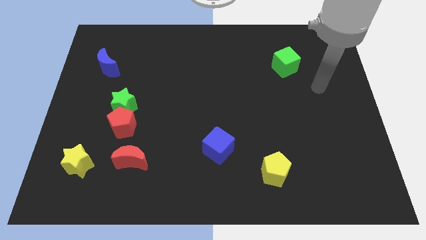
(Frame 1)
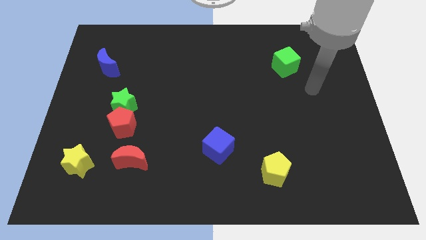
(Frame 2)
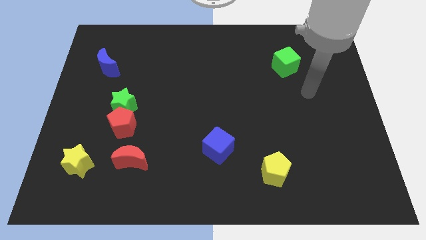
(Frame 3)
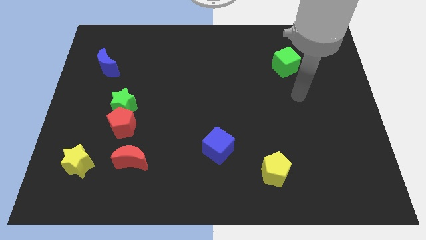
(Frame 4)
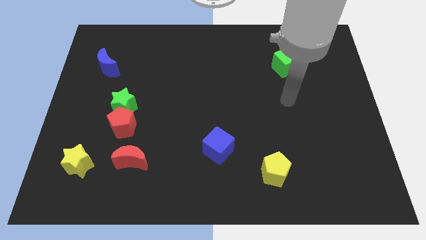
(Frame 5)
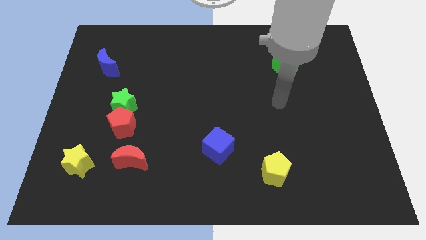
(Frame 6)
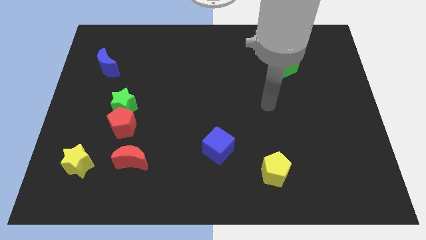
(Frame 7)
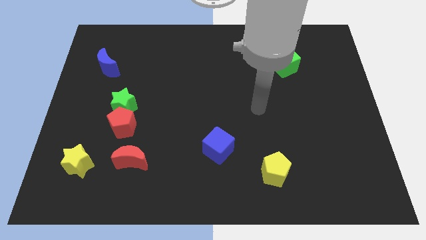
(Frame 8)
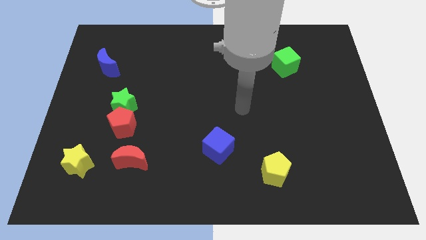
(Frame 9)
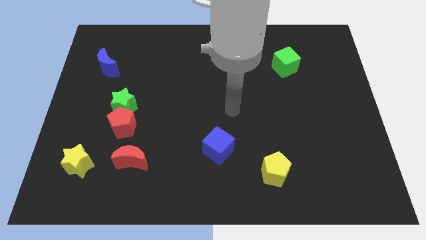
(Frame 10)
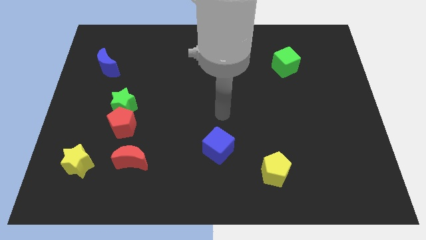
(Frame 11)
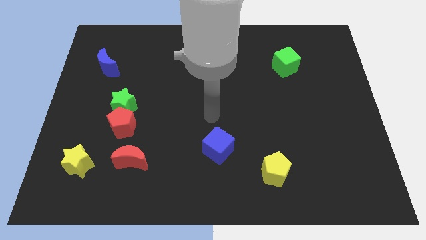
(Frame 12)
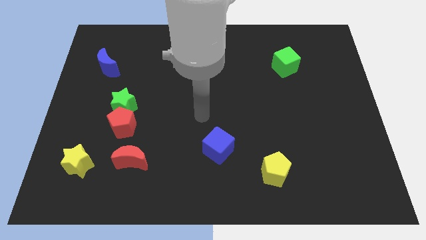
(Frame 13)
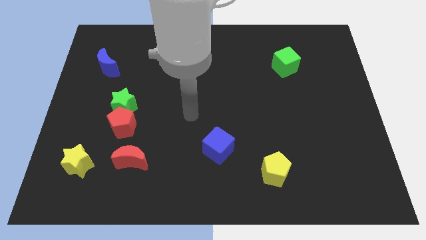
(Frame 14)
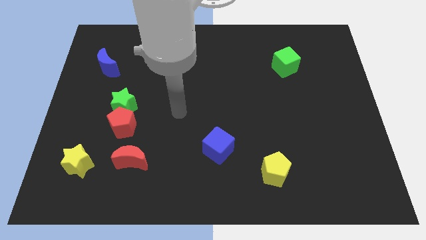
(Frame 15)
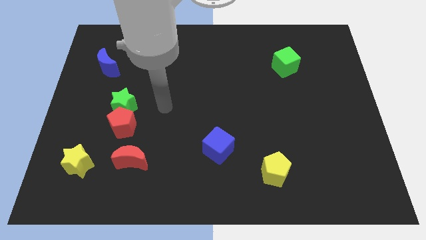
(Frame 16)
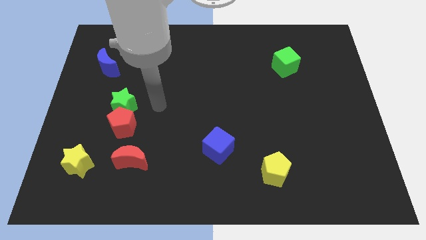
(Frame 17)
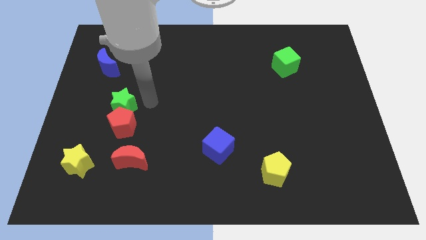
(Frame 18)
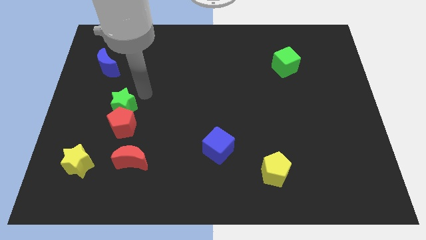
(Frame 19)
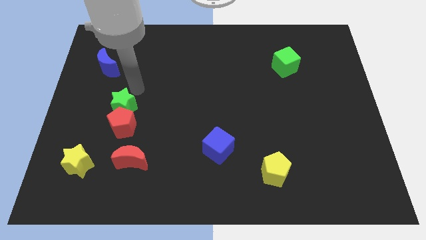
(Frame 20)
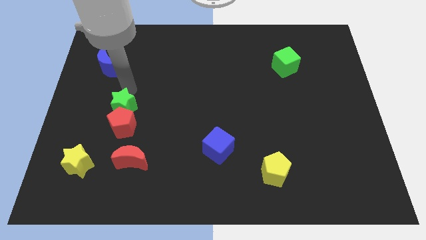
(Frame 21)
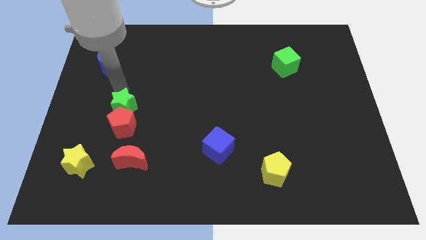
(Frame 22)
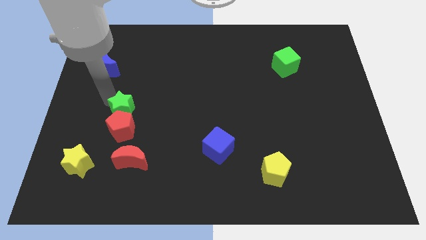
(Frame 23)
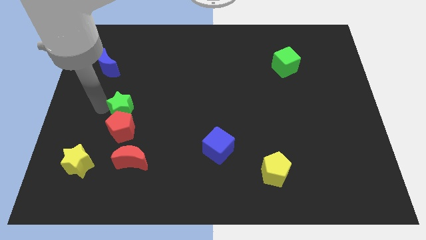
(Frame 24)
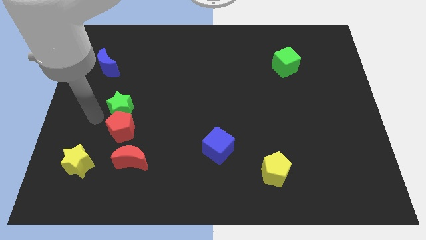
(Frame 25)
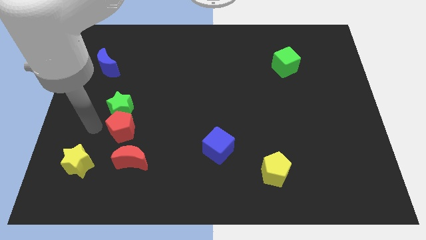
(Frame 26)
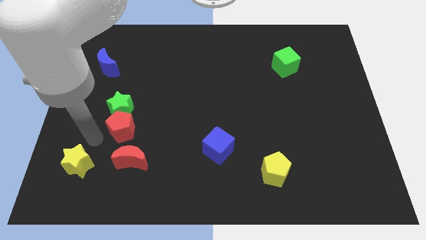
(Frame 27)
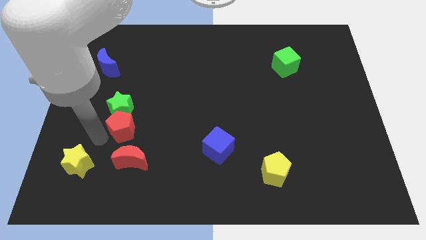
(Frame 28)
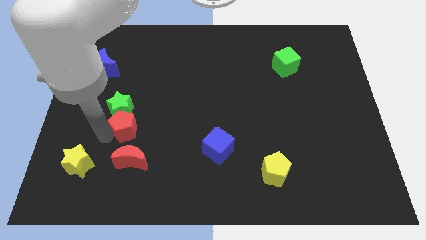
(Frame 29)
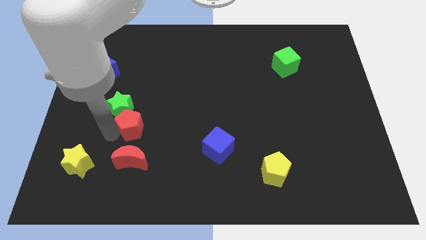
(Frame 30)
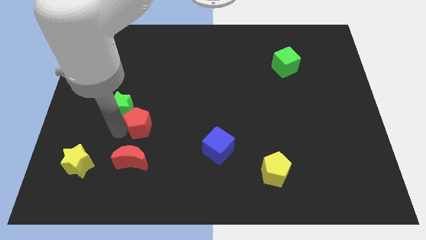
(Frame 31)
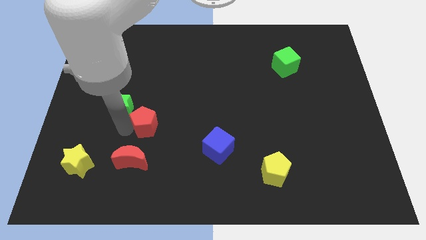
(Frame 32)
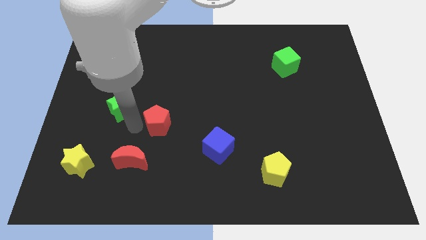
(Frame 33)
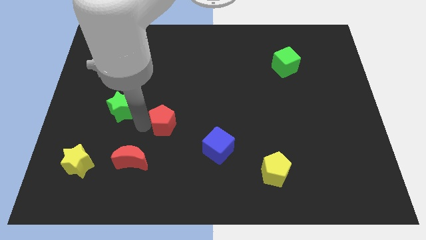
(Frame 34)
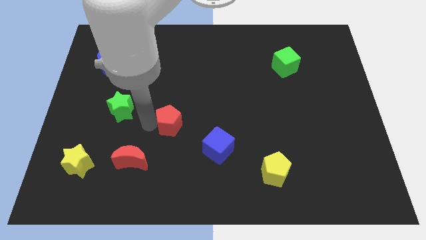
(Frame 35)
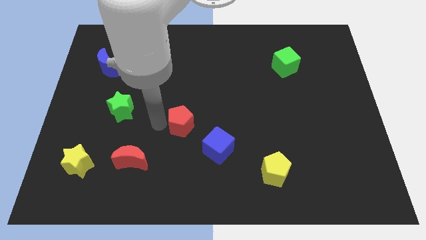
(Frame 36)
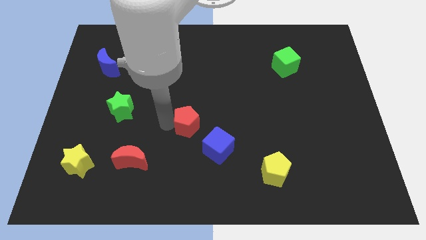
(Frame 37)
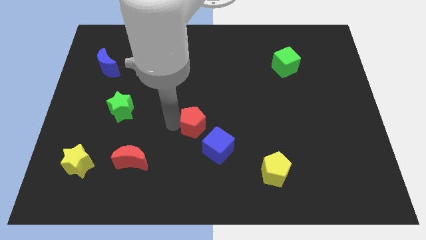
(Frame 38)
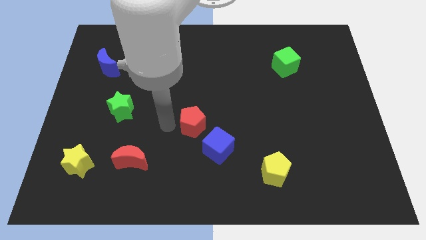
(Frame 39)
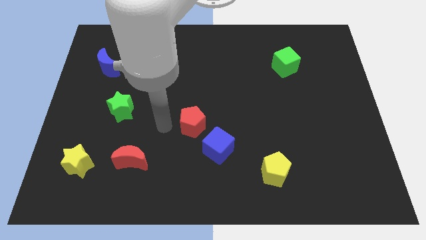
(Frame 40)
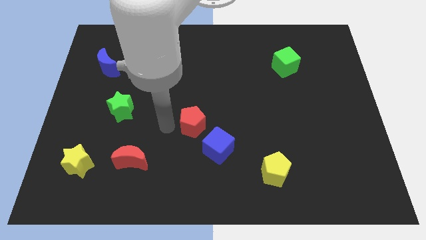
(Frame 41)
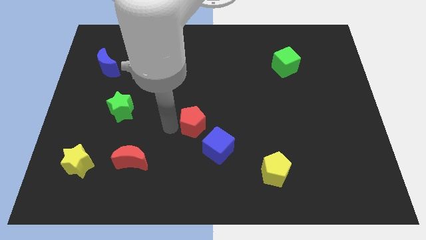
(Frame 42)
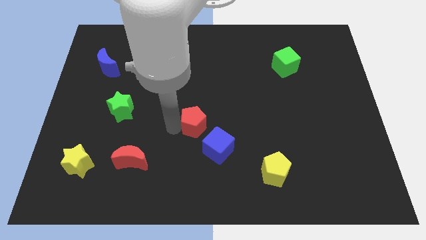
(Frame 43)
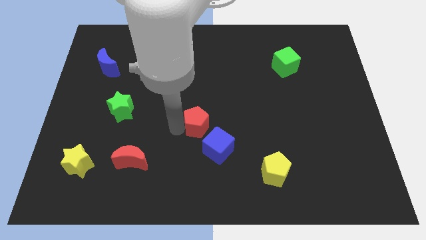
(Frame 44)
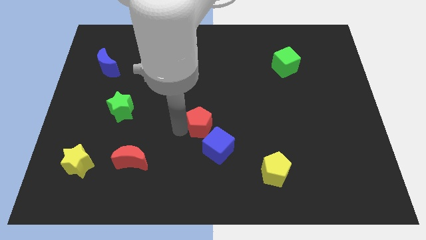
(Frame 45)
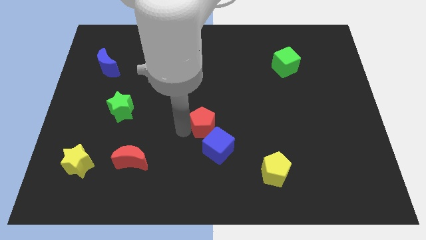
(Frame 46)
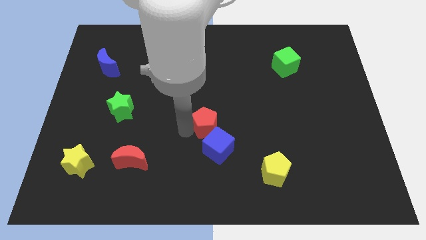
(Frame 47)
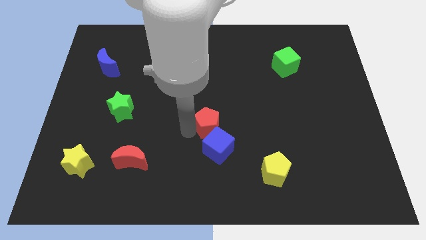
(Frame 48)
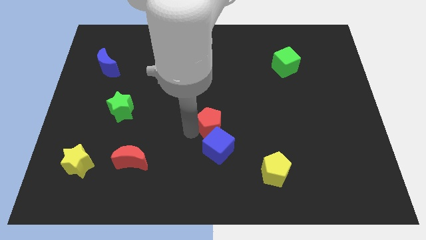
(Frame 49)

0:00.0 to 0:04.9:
move the red pentagon right

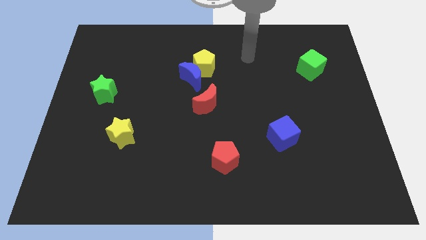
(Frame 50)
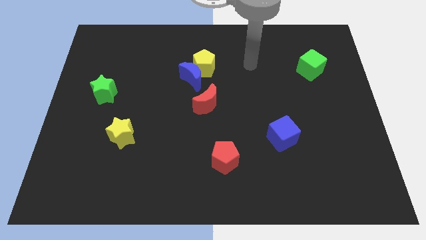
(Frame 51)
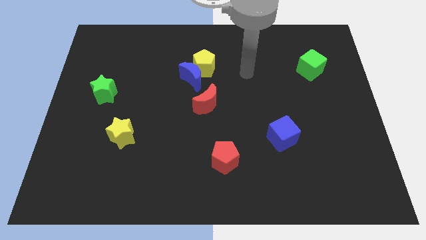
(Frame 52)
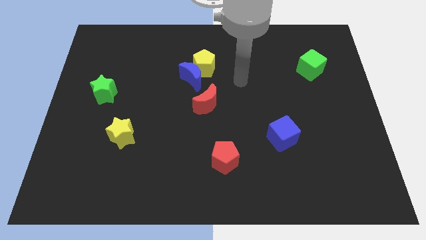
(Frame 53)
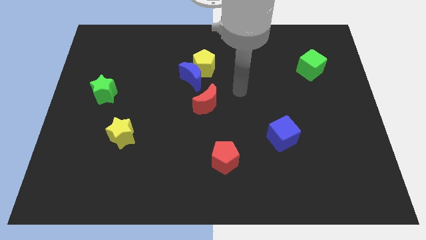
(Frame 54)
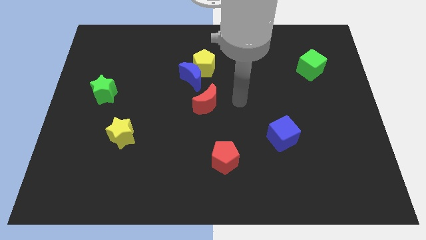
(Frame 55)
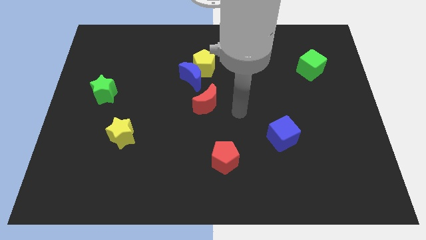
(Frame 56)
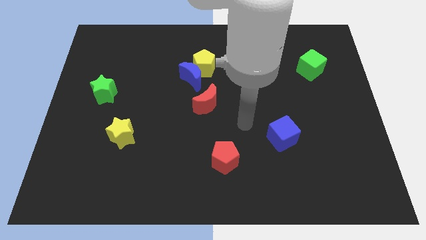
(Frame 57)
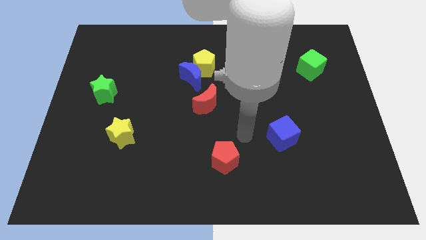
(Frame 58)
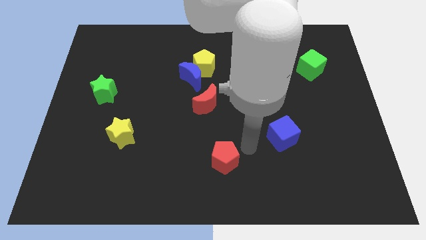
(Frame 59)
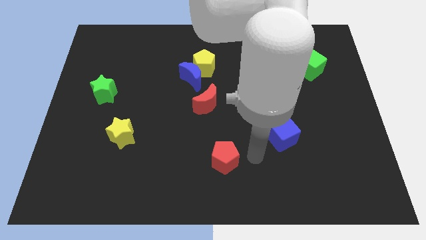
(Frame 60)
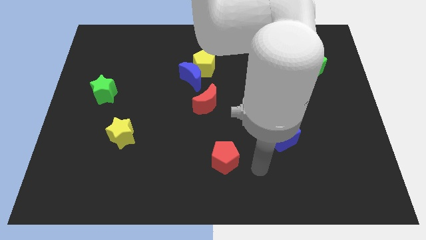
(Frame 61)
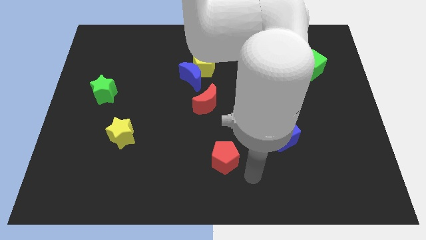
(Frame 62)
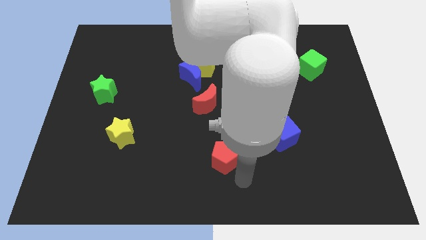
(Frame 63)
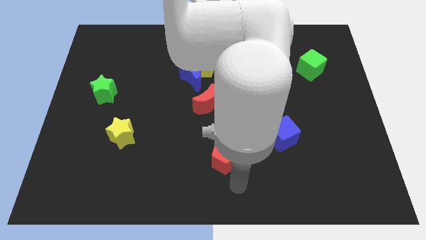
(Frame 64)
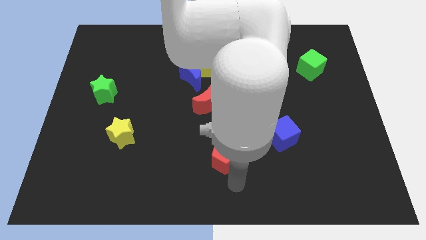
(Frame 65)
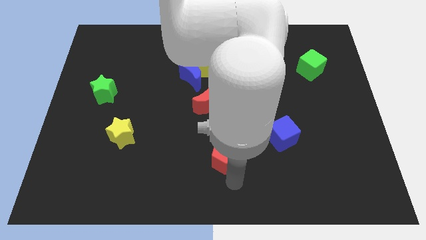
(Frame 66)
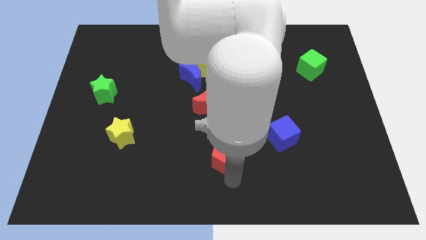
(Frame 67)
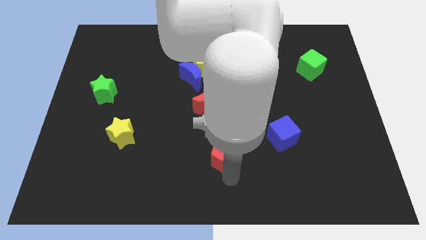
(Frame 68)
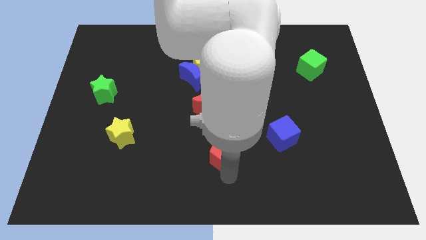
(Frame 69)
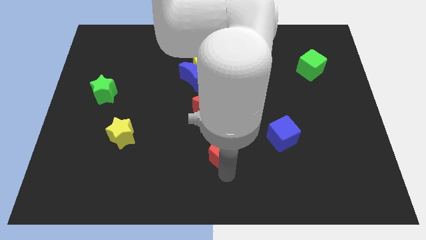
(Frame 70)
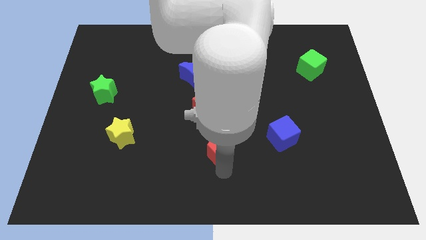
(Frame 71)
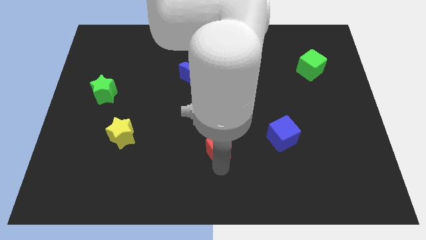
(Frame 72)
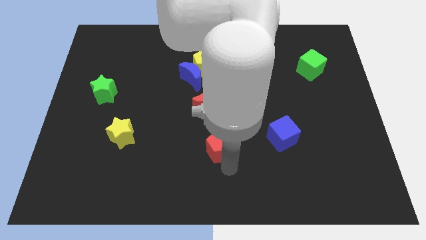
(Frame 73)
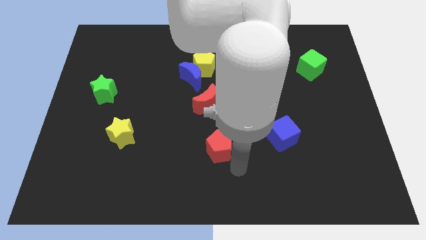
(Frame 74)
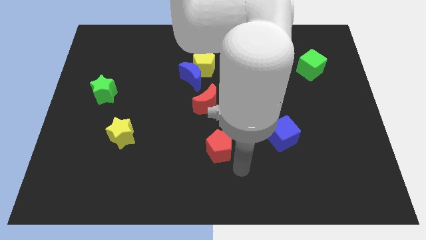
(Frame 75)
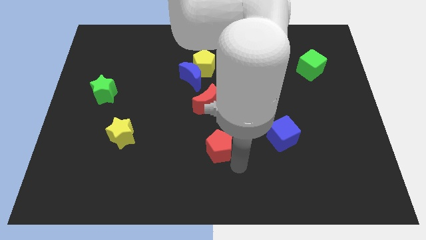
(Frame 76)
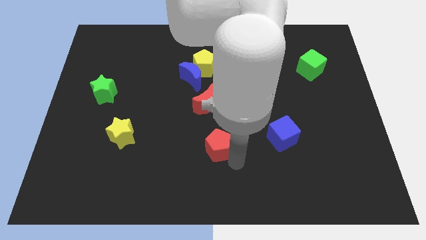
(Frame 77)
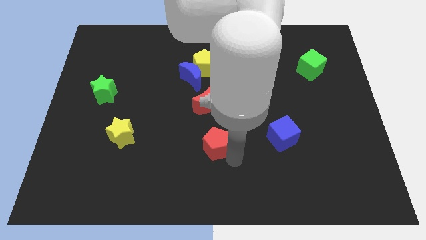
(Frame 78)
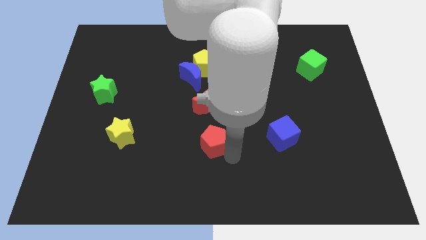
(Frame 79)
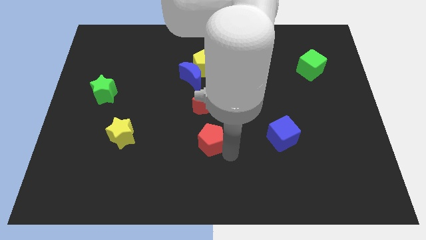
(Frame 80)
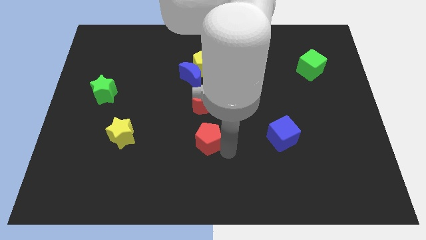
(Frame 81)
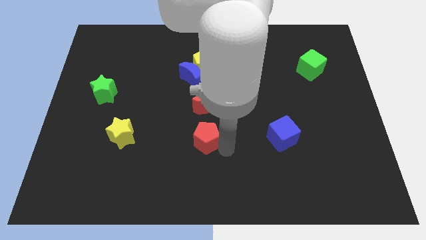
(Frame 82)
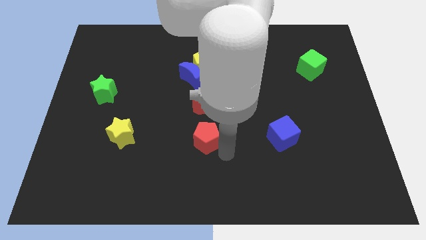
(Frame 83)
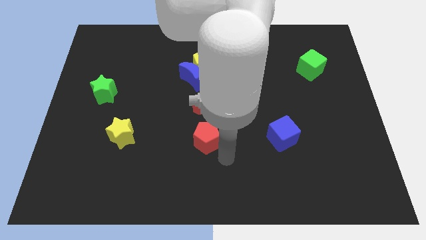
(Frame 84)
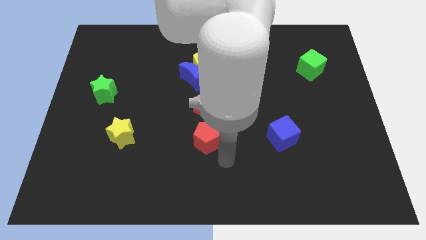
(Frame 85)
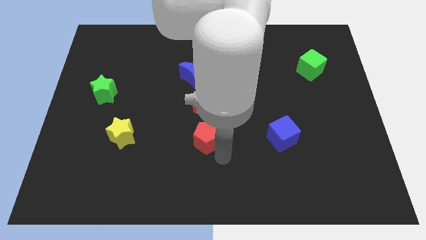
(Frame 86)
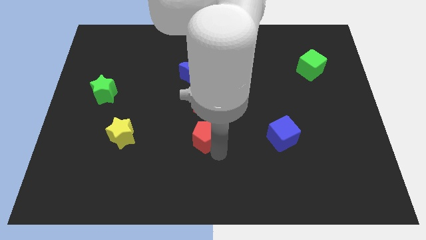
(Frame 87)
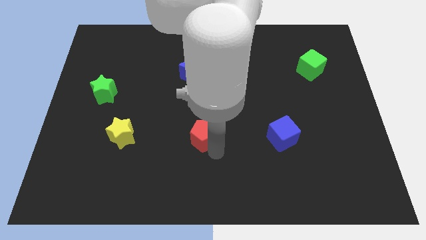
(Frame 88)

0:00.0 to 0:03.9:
slightly slide the red pentagon diagonally up and left
